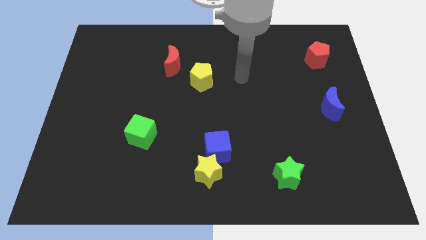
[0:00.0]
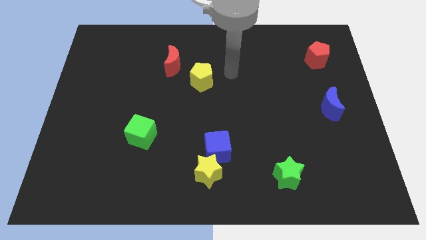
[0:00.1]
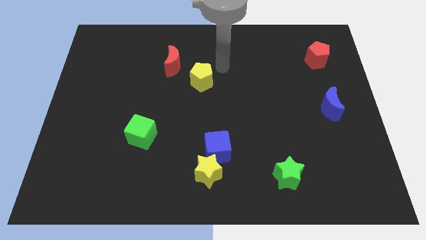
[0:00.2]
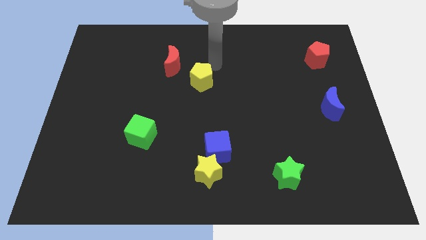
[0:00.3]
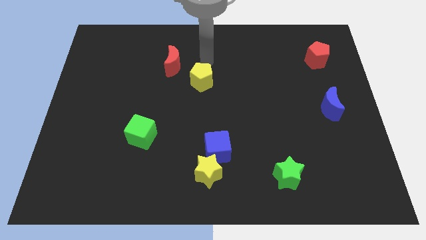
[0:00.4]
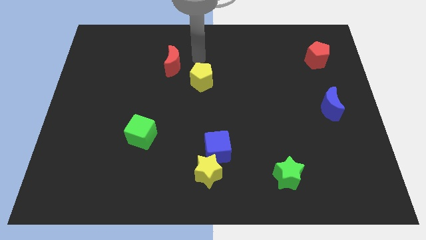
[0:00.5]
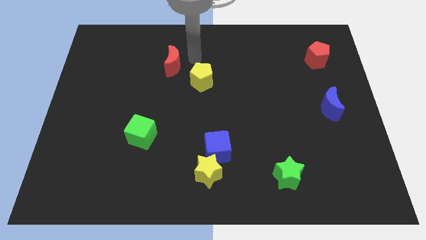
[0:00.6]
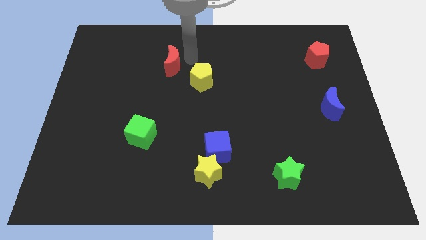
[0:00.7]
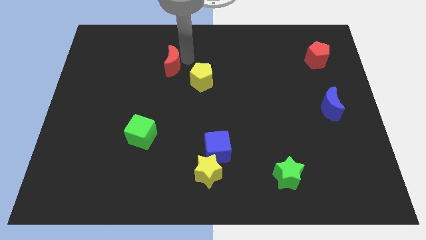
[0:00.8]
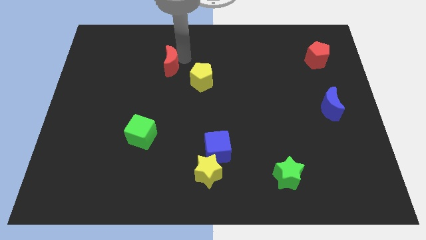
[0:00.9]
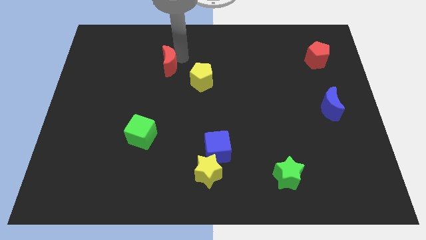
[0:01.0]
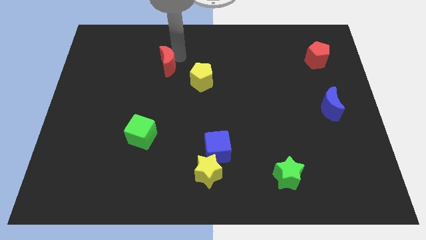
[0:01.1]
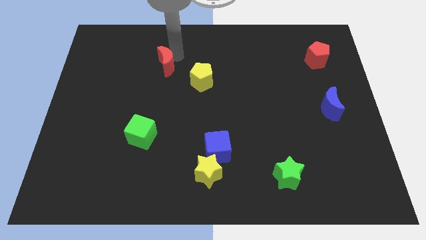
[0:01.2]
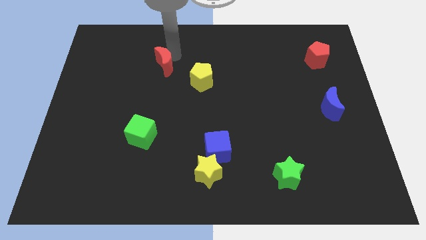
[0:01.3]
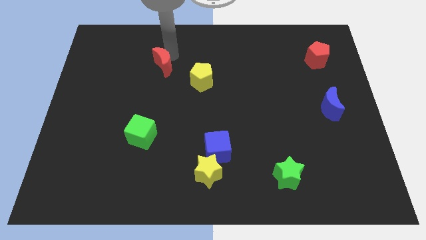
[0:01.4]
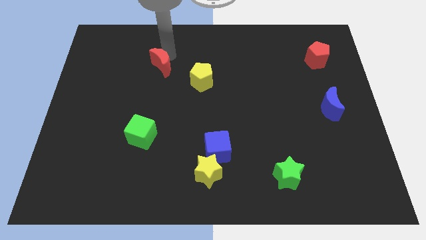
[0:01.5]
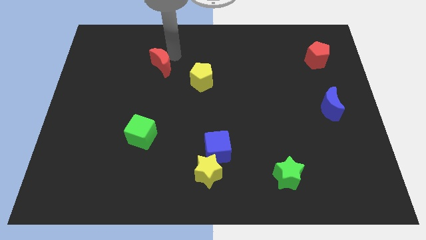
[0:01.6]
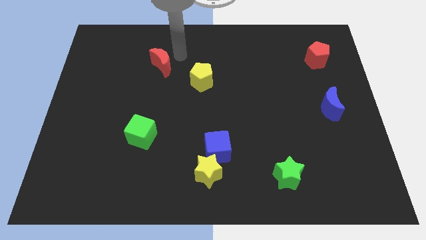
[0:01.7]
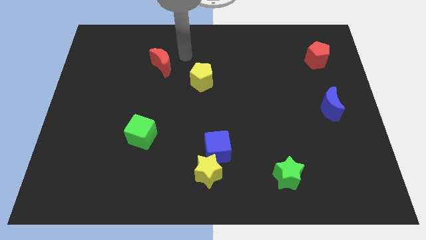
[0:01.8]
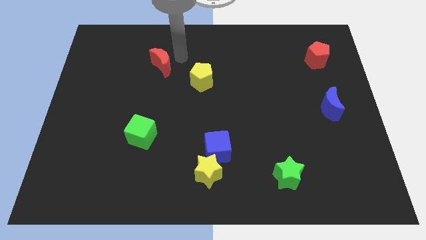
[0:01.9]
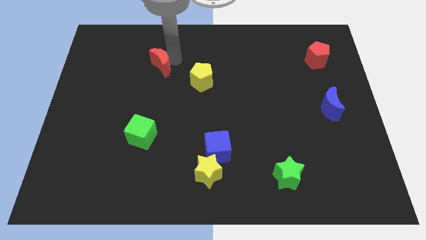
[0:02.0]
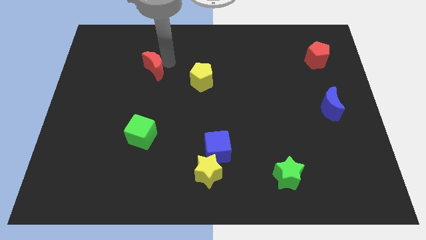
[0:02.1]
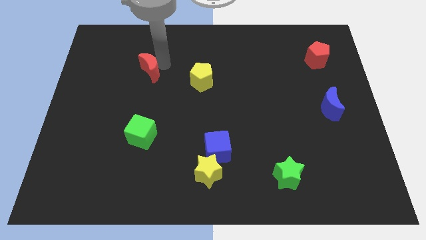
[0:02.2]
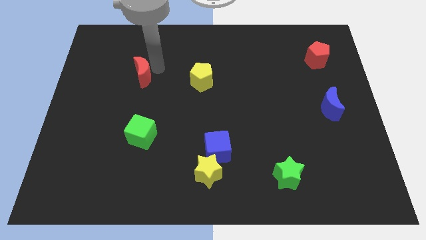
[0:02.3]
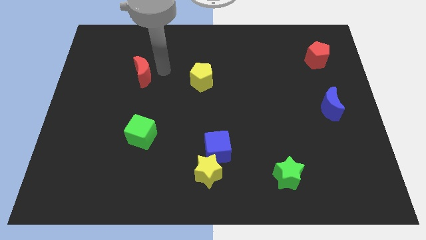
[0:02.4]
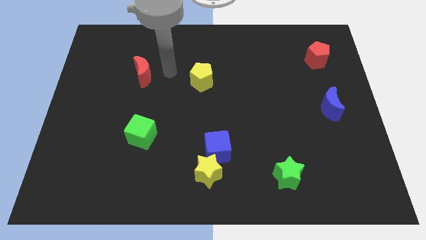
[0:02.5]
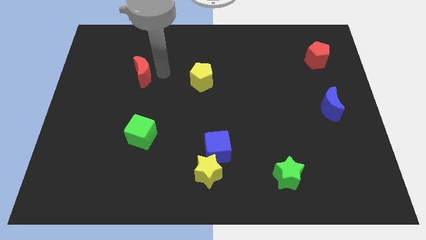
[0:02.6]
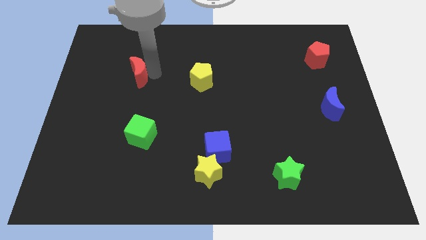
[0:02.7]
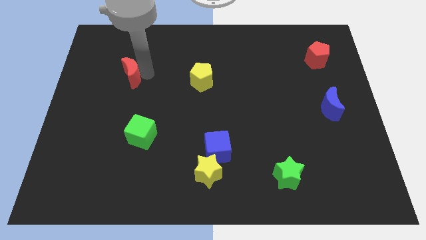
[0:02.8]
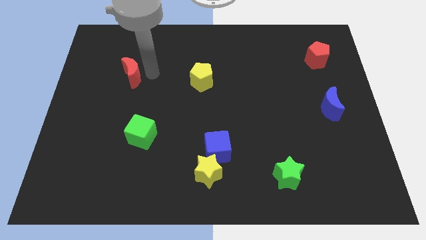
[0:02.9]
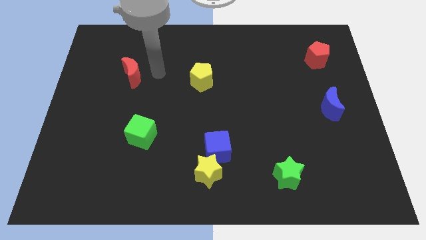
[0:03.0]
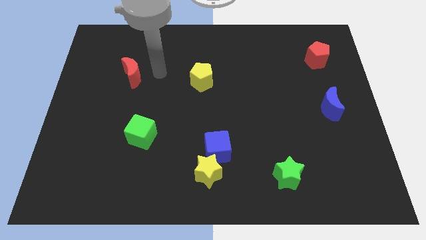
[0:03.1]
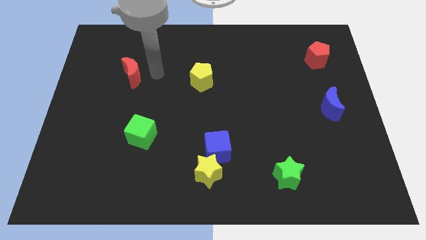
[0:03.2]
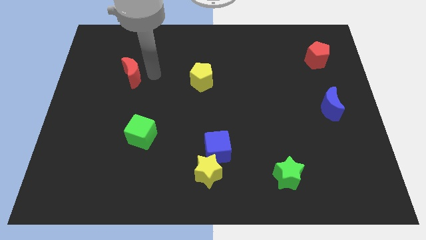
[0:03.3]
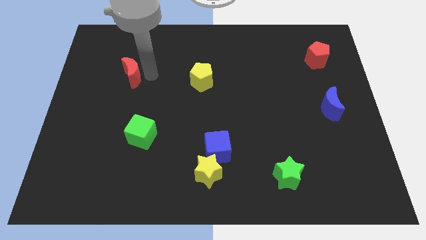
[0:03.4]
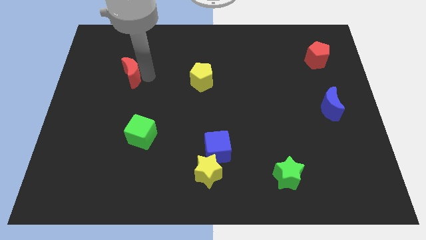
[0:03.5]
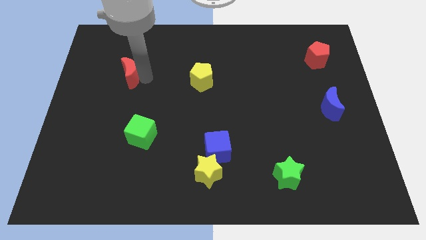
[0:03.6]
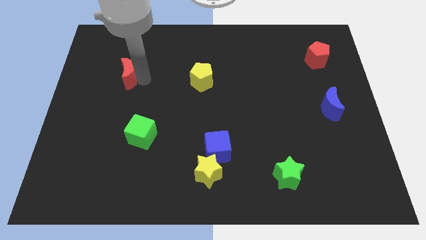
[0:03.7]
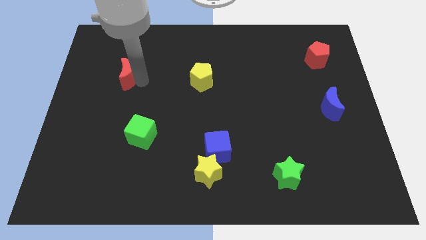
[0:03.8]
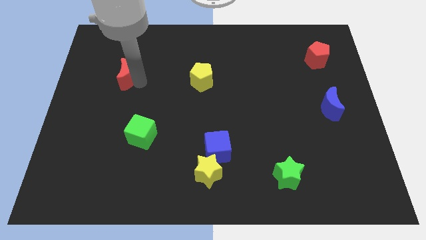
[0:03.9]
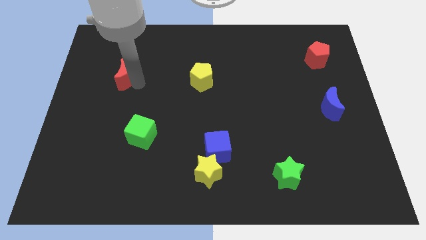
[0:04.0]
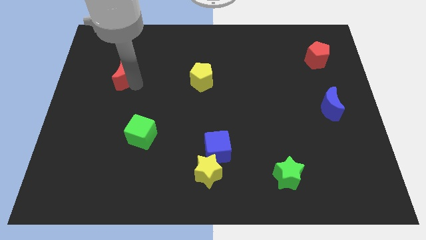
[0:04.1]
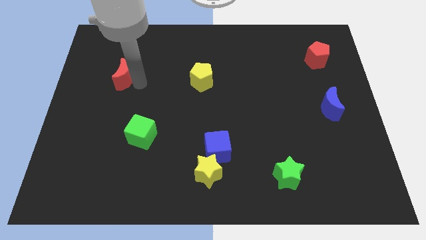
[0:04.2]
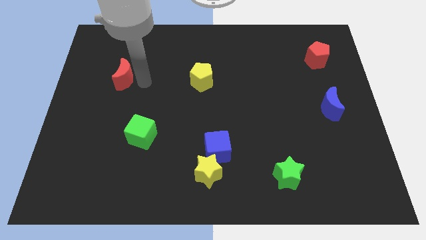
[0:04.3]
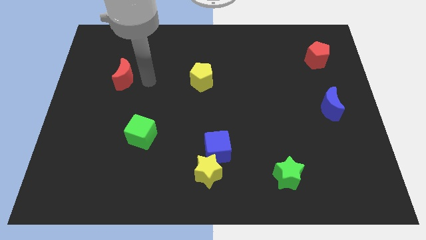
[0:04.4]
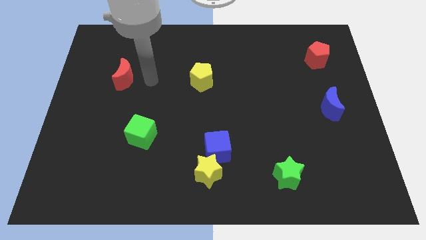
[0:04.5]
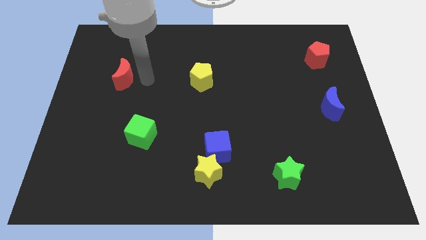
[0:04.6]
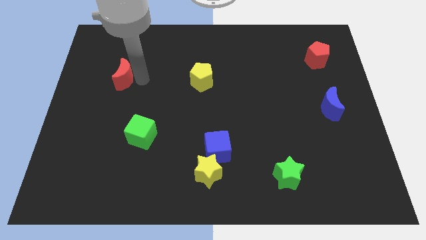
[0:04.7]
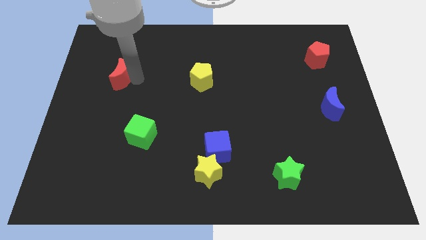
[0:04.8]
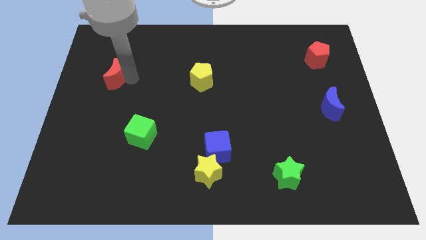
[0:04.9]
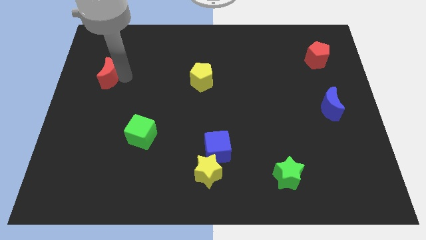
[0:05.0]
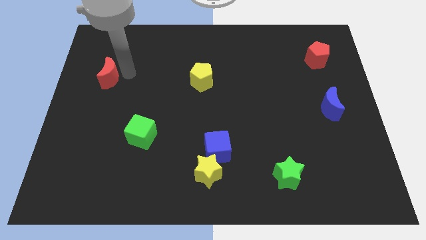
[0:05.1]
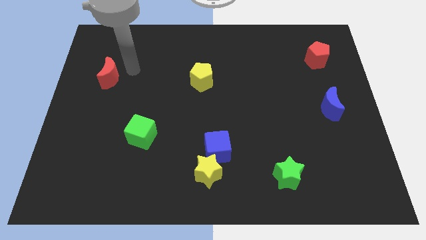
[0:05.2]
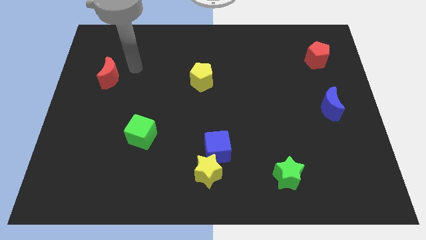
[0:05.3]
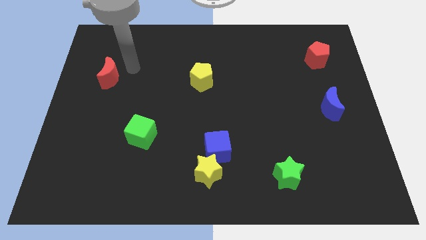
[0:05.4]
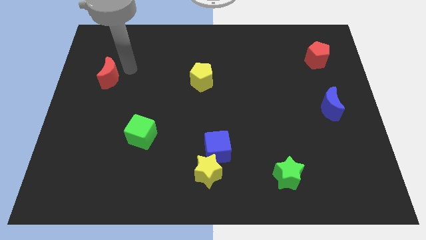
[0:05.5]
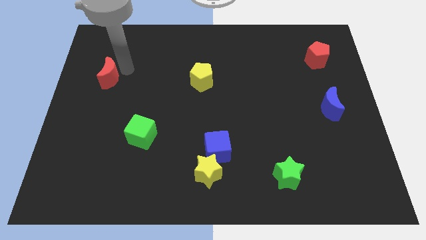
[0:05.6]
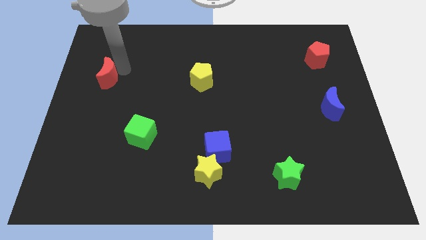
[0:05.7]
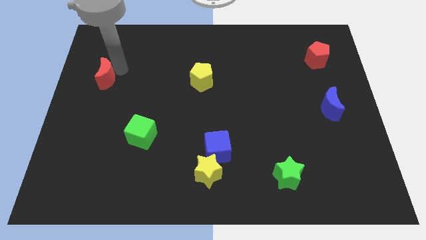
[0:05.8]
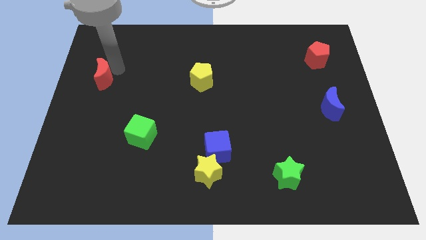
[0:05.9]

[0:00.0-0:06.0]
put the red moon to the left side
